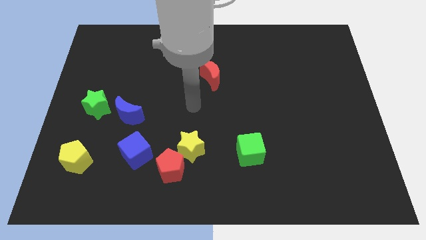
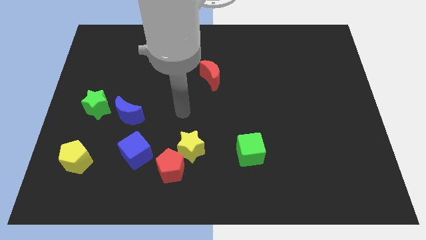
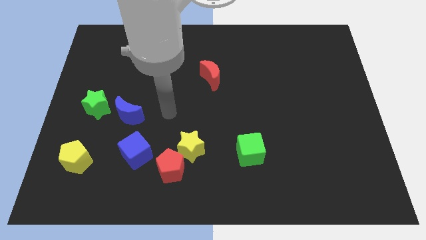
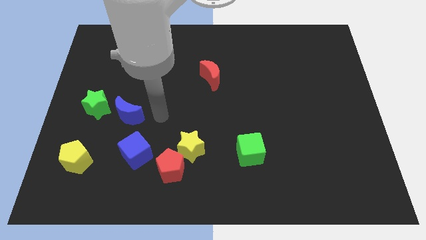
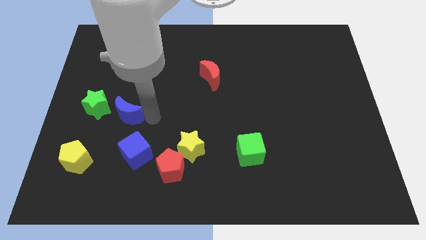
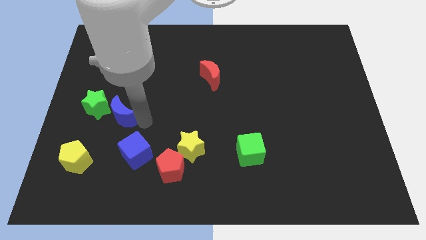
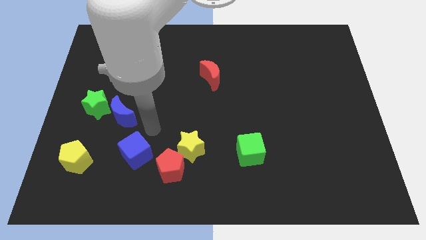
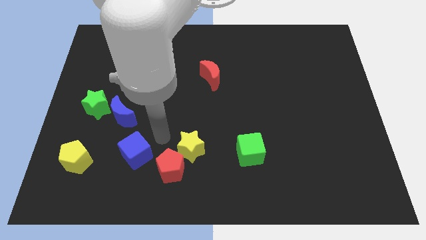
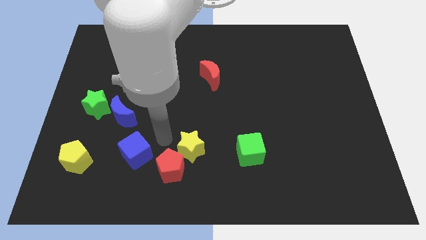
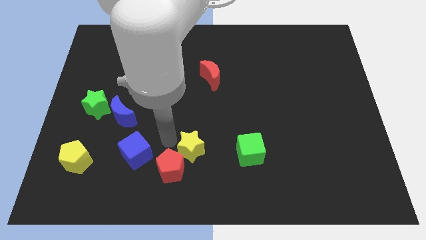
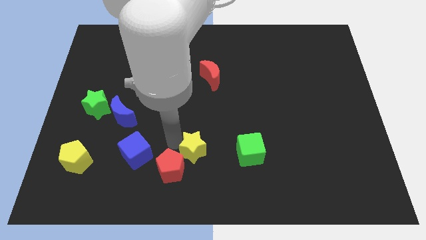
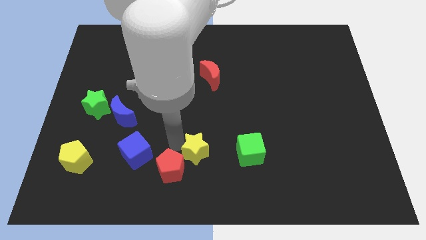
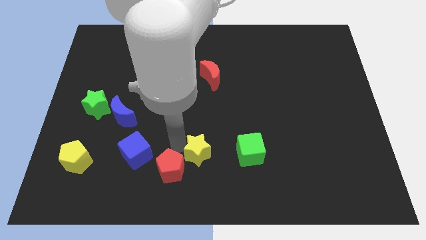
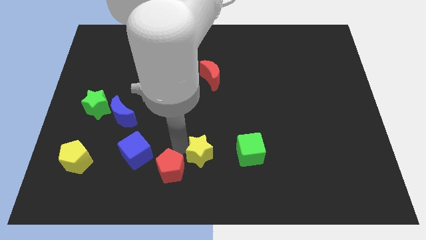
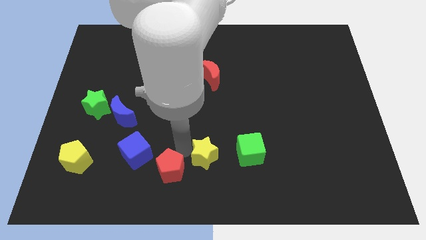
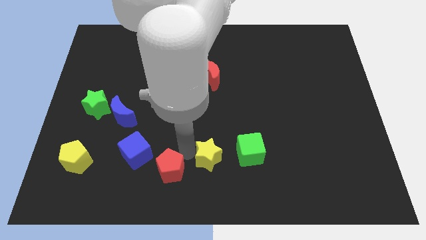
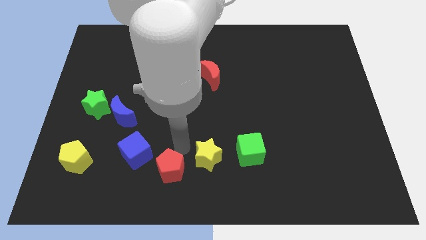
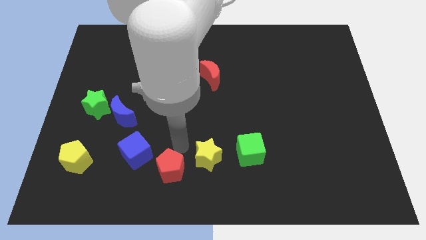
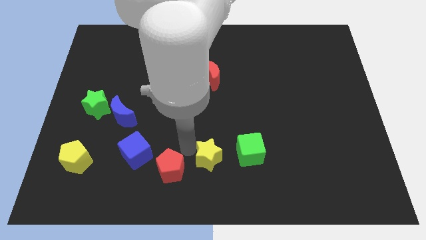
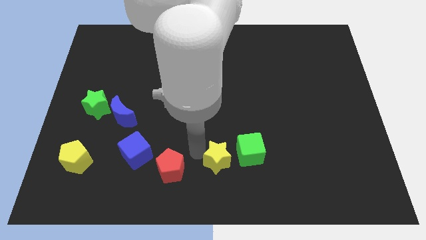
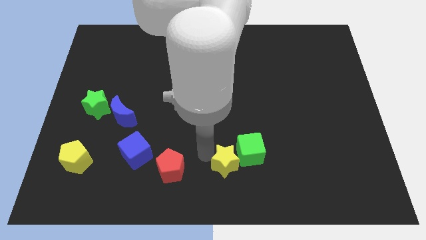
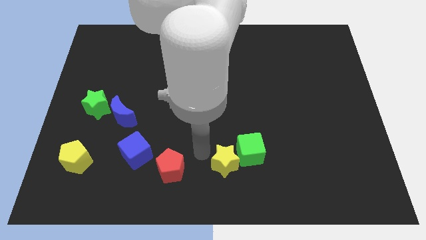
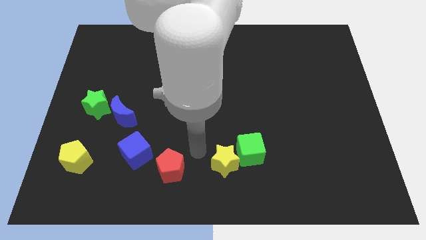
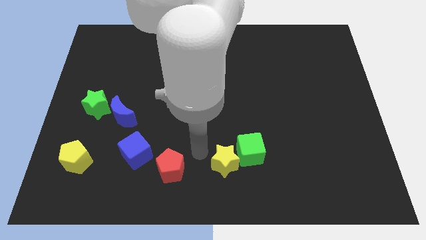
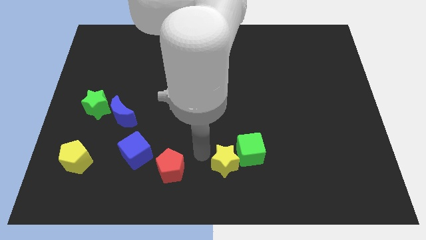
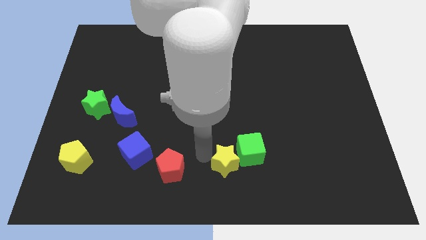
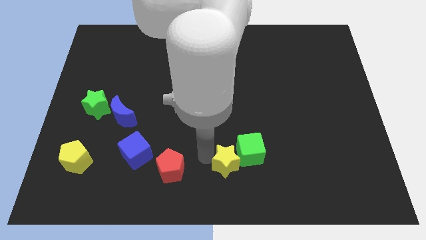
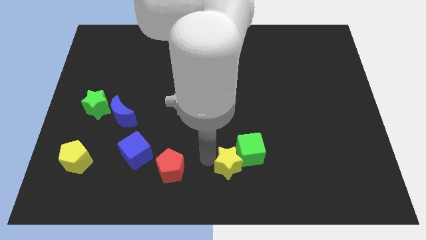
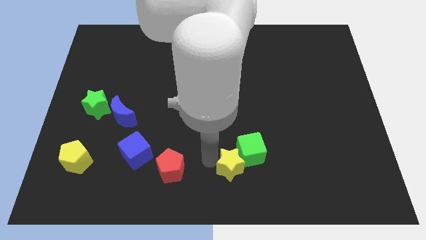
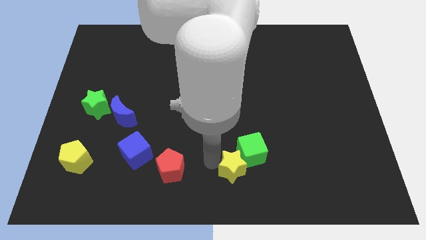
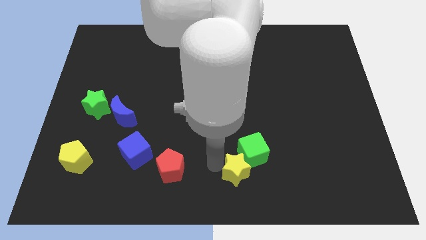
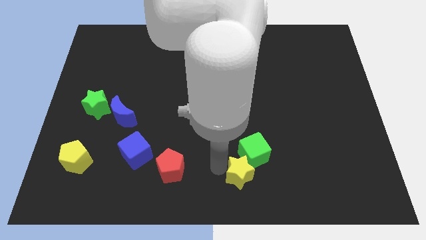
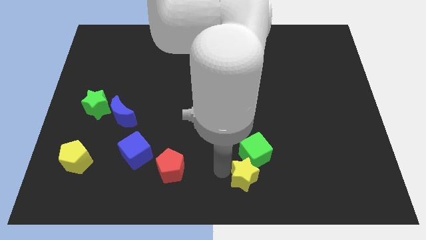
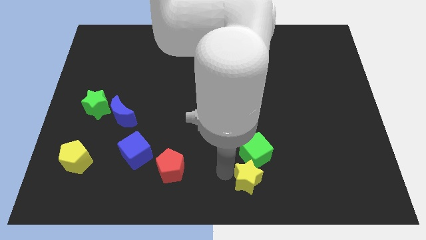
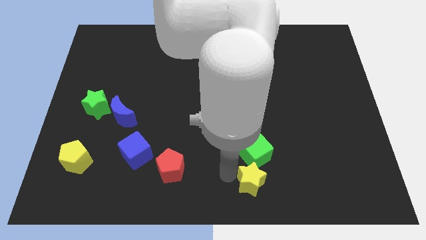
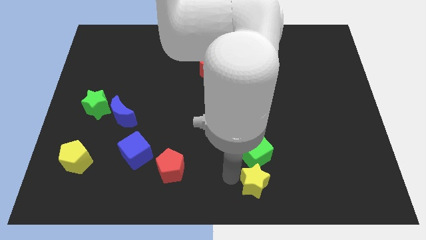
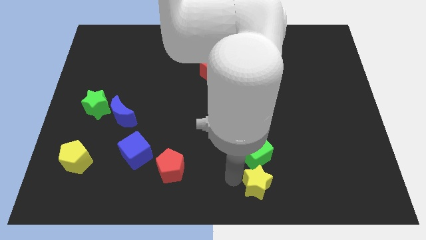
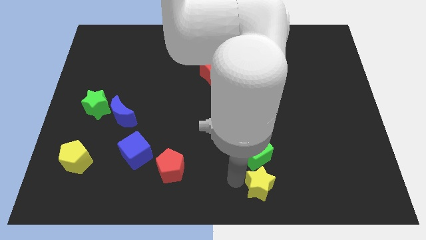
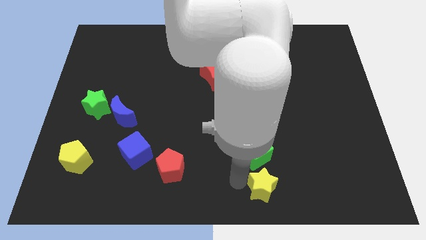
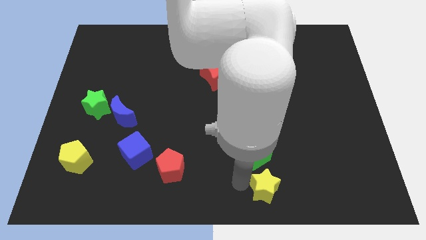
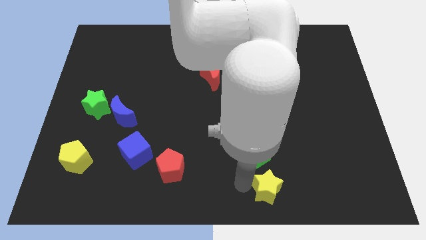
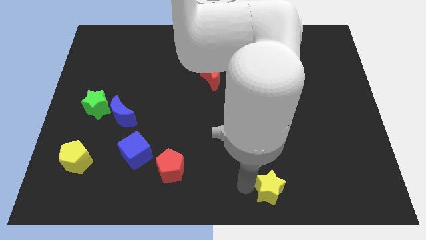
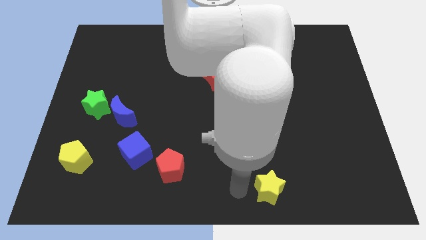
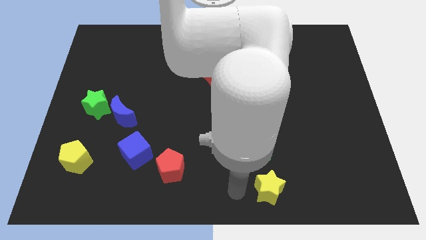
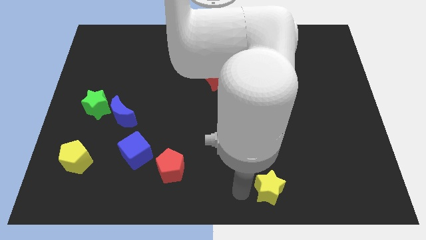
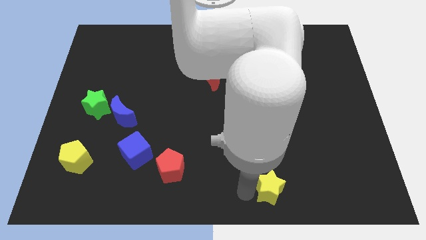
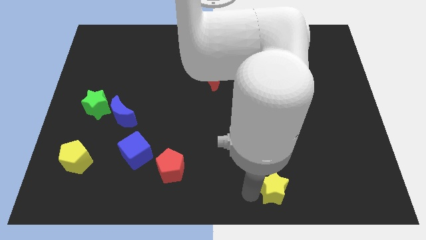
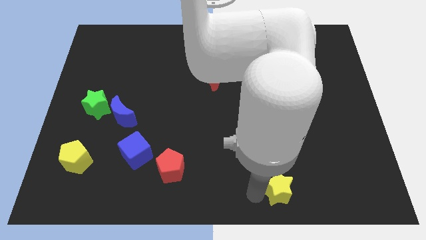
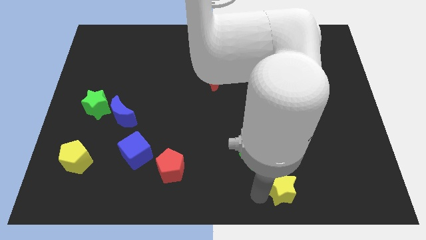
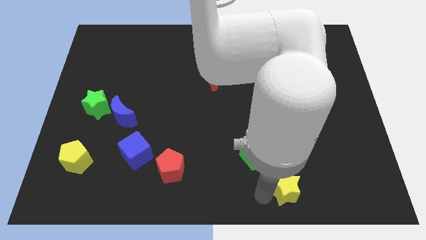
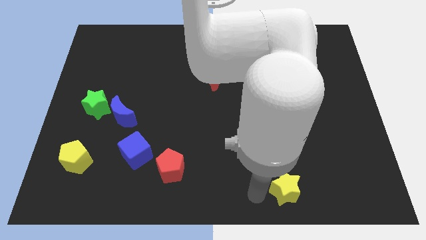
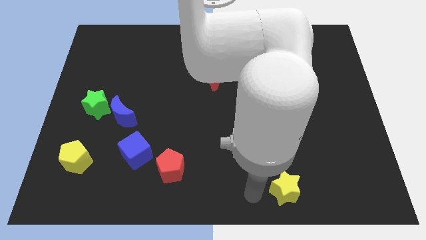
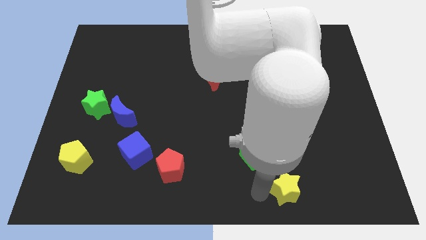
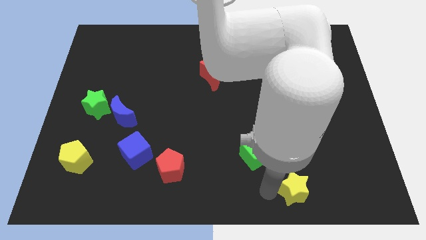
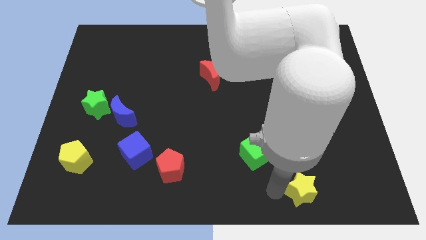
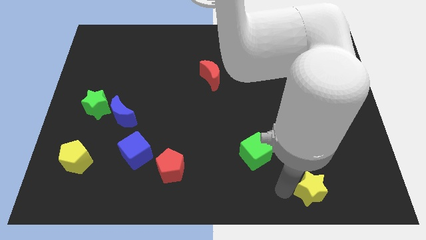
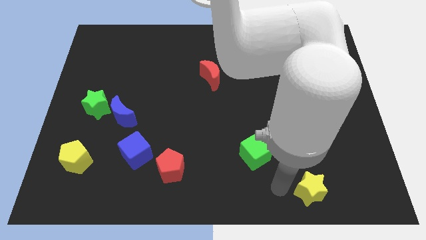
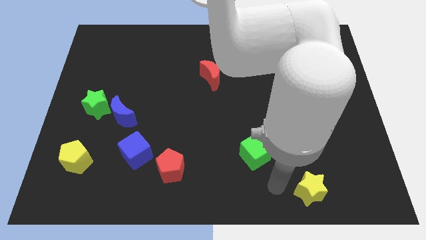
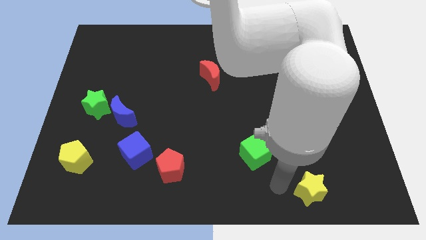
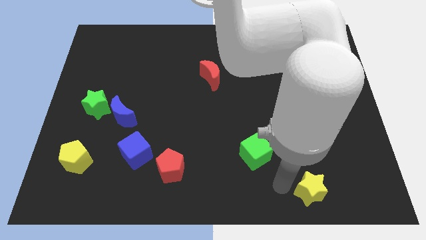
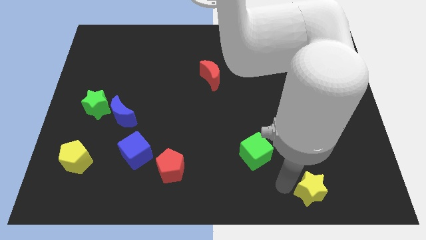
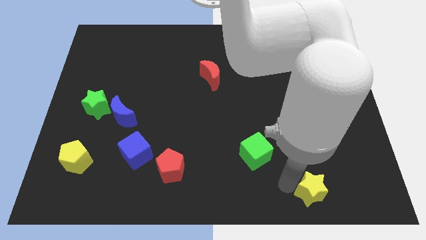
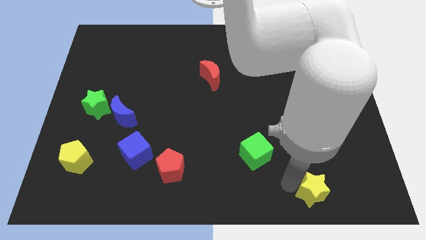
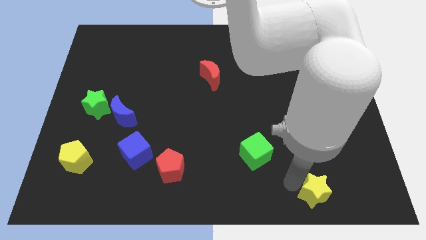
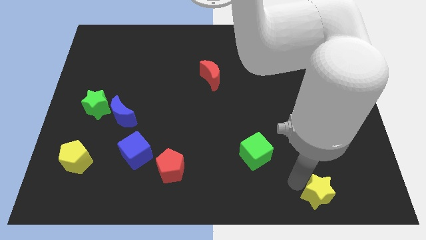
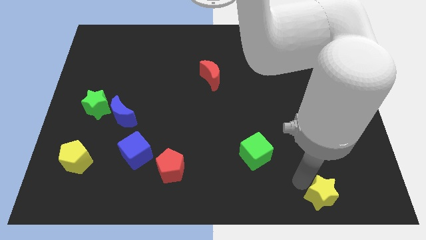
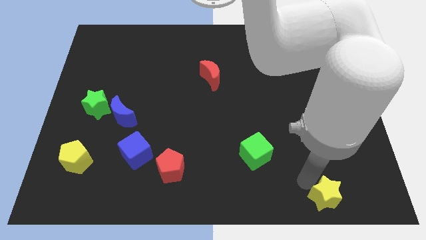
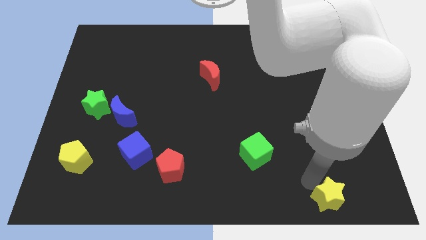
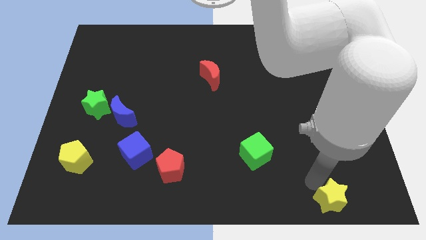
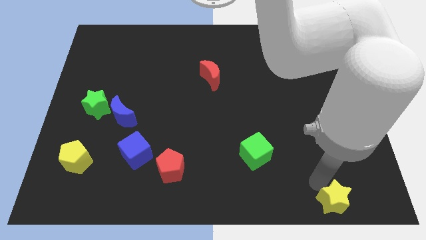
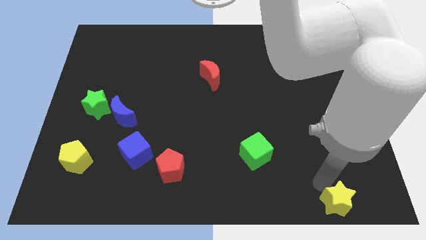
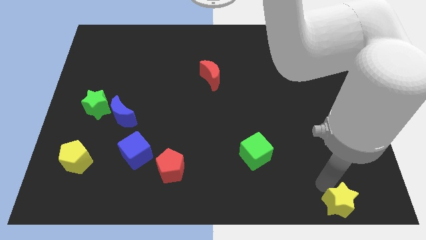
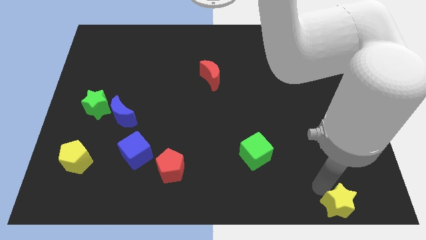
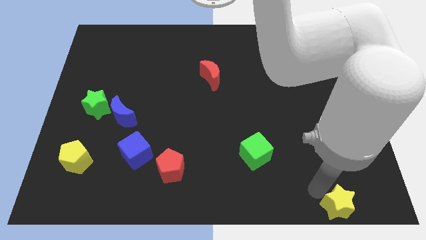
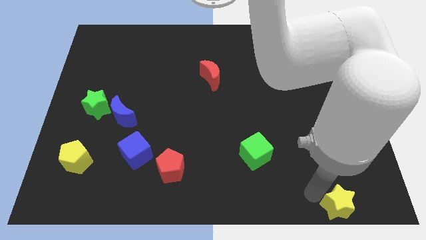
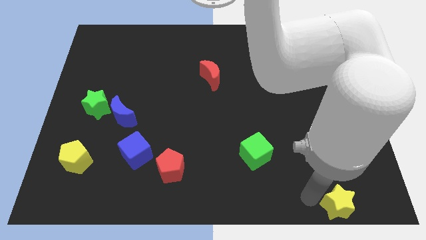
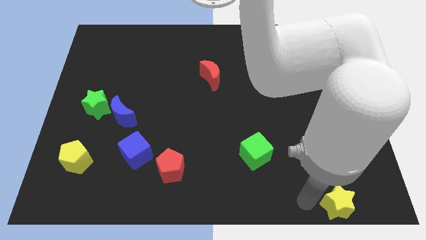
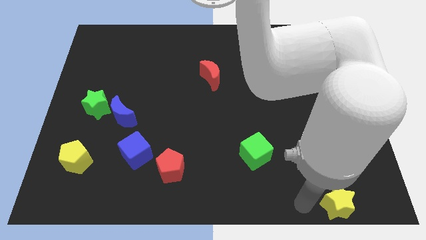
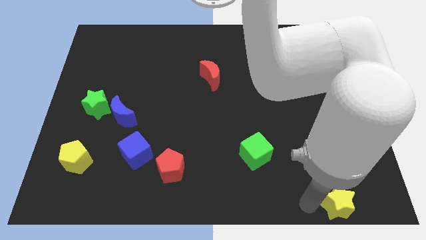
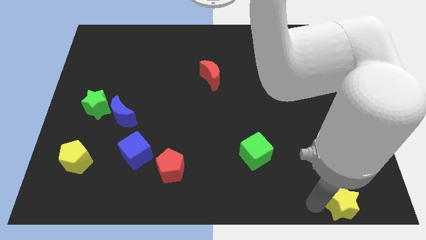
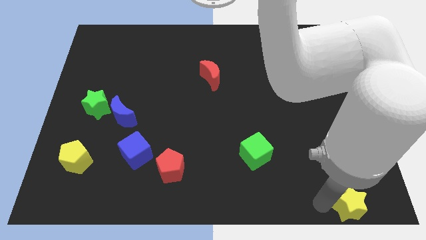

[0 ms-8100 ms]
push the yellow star to the bottom right
